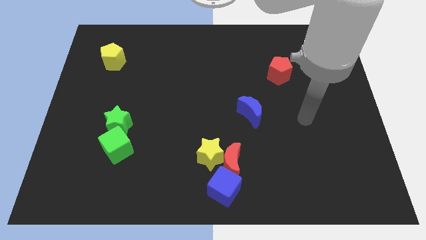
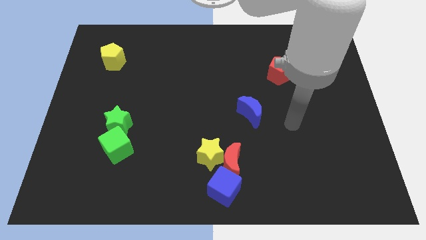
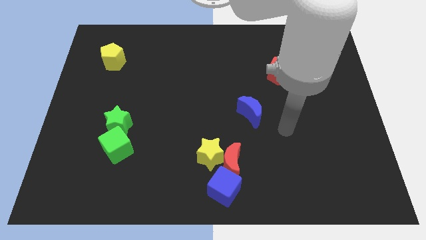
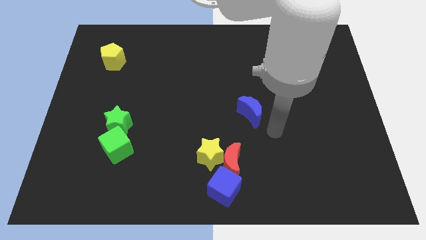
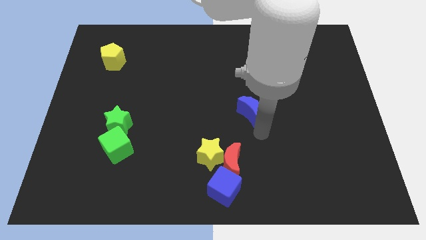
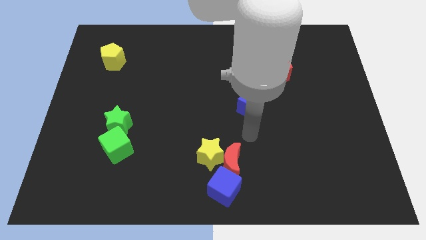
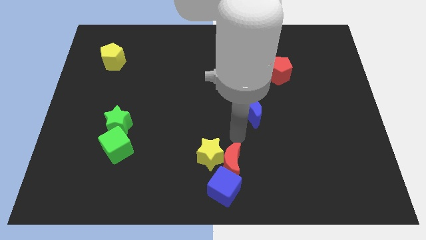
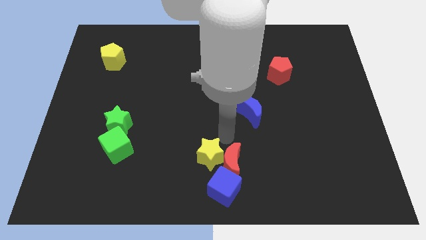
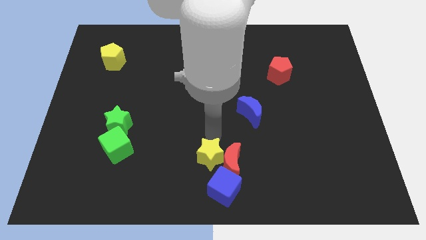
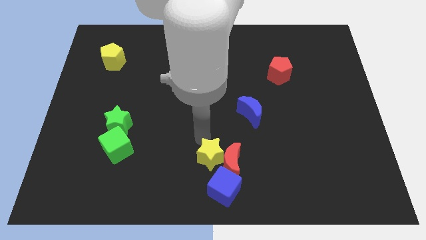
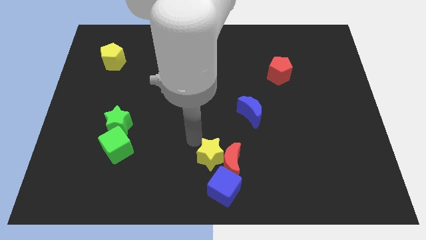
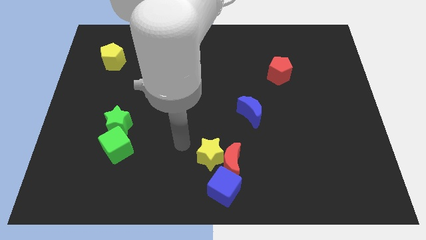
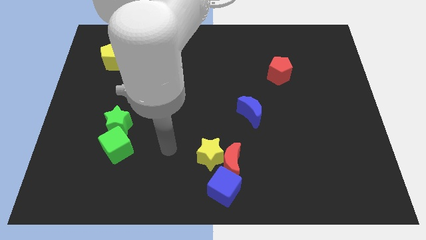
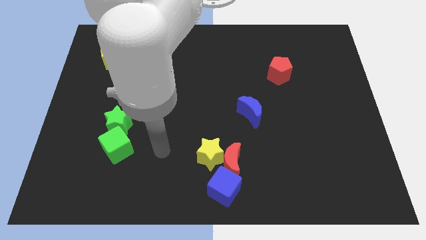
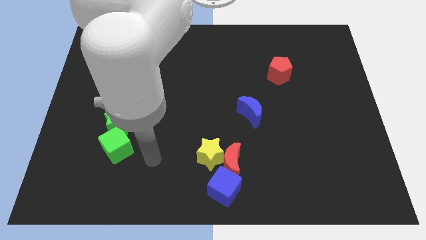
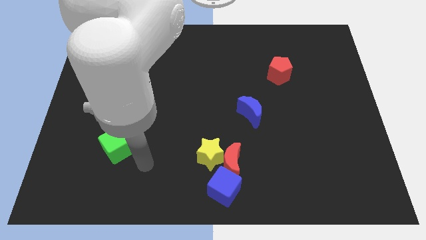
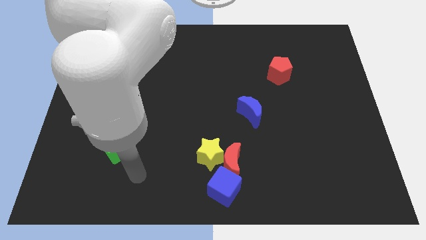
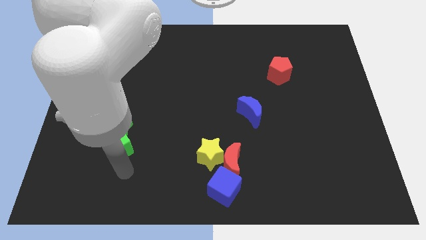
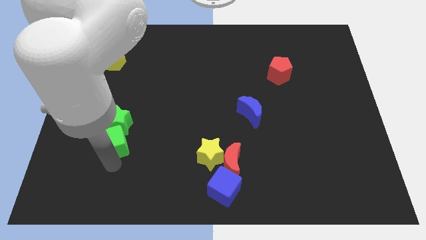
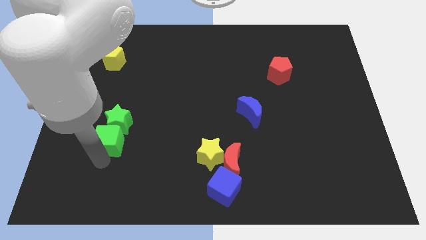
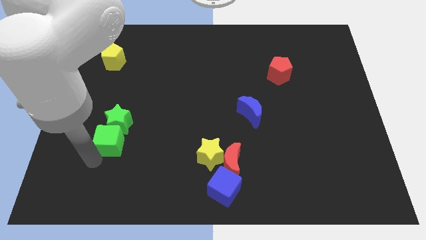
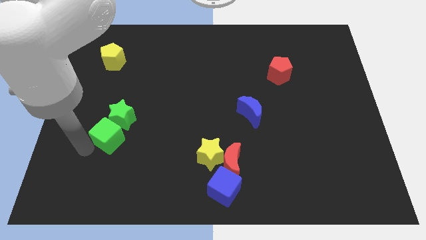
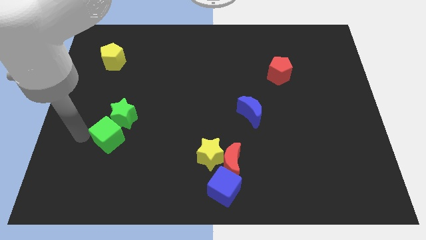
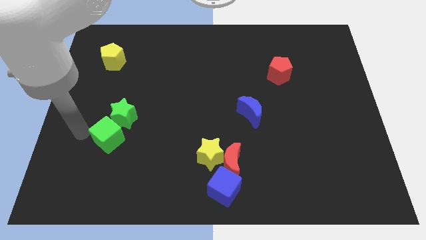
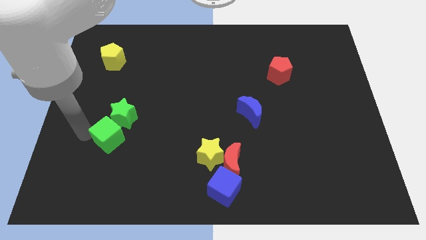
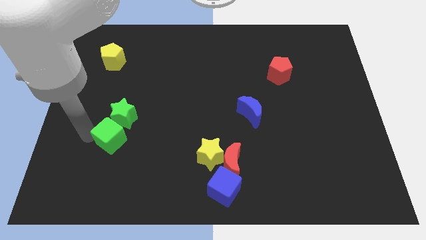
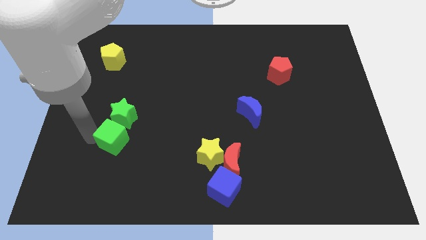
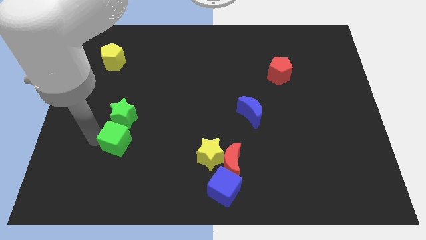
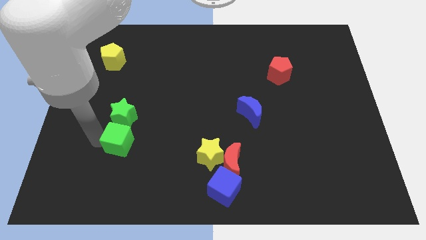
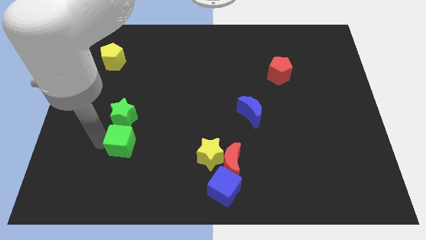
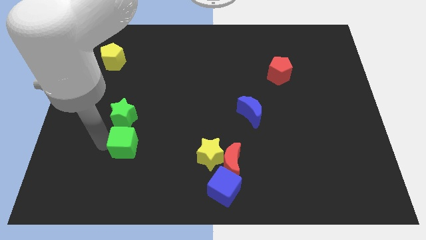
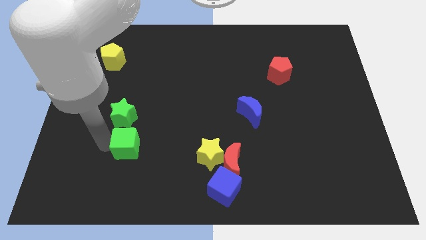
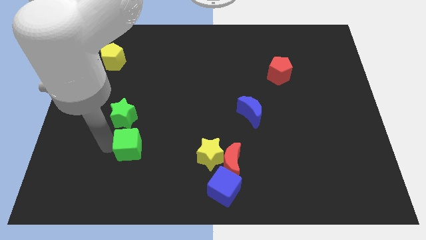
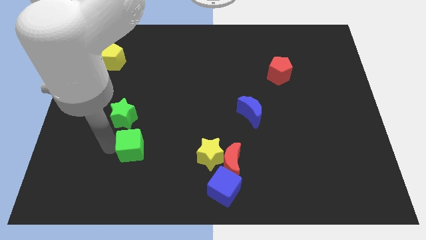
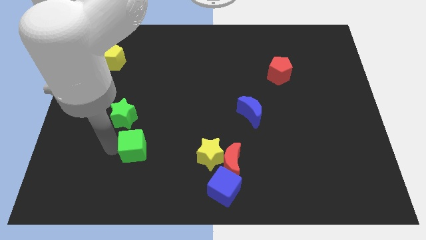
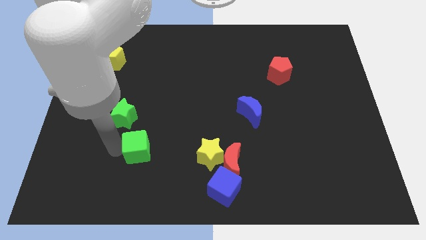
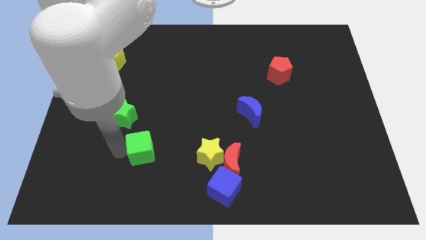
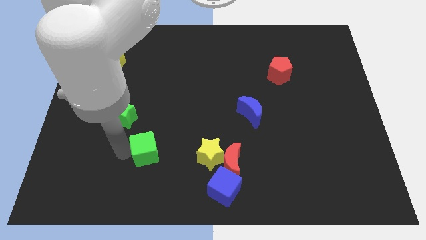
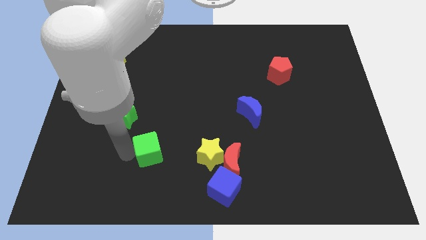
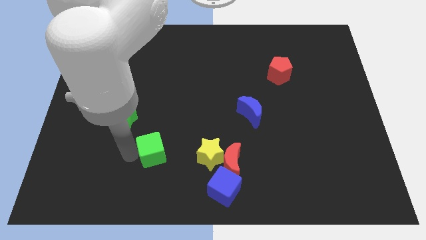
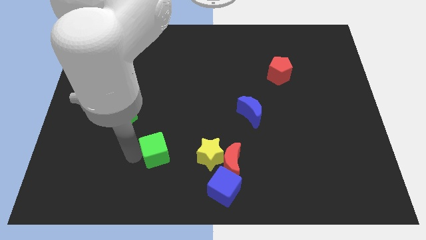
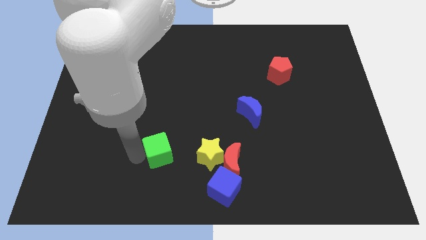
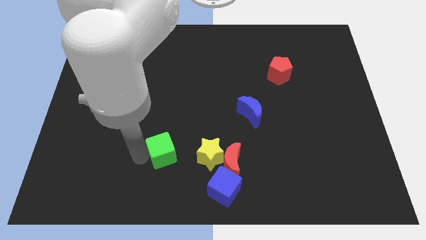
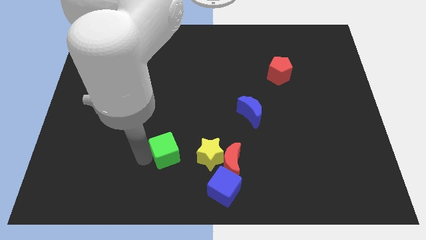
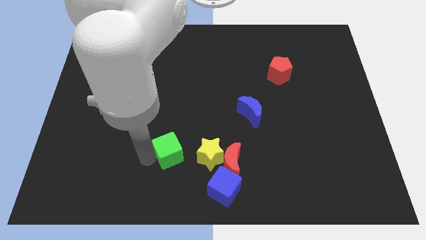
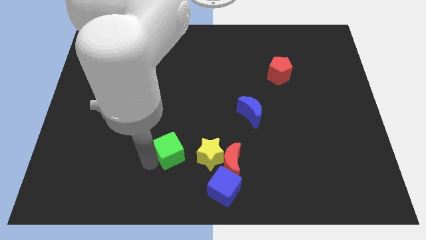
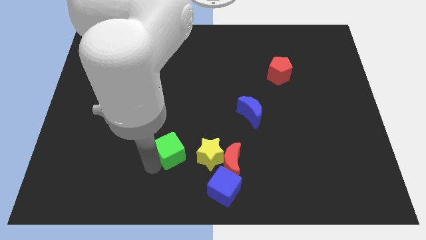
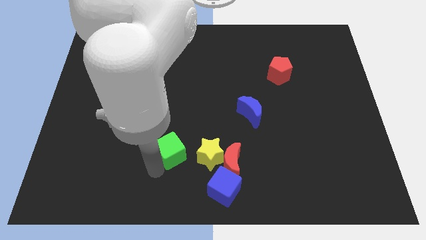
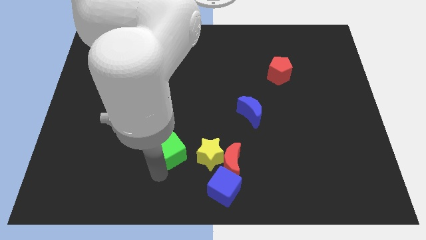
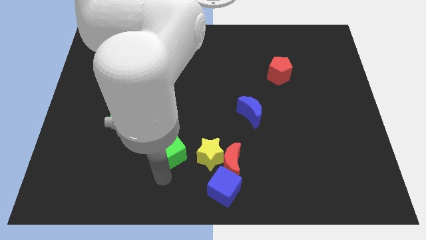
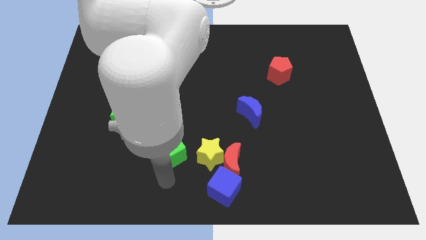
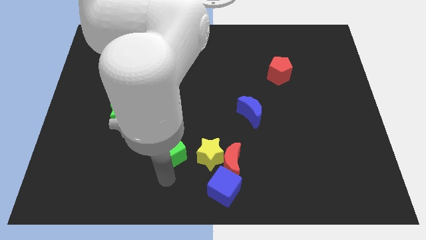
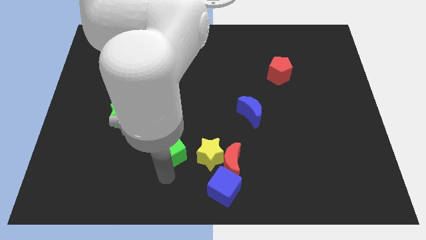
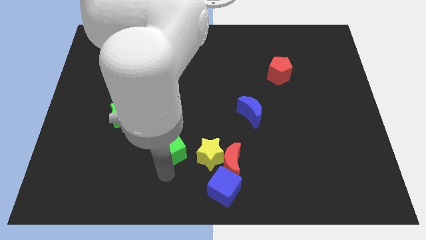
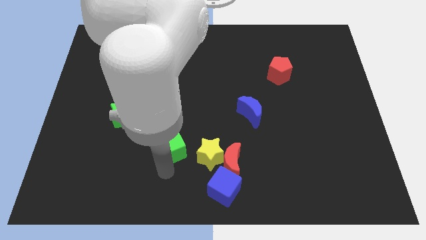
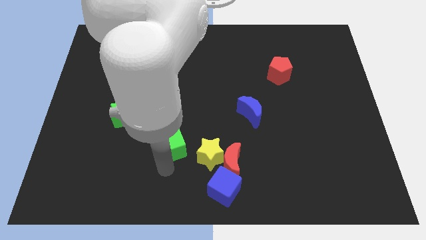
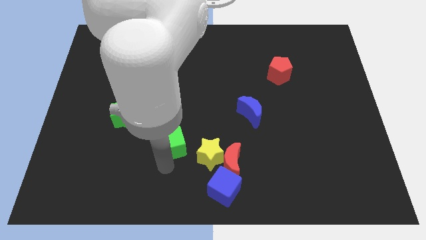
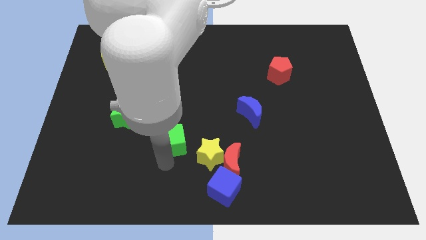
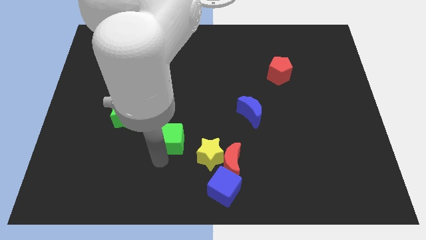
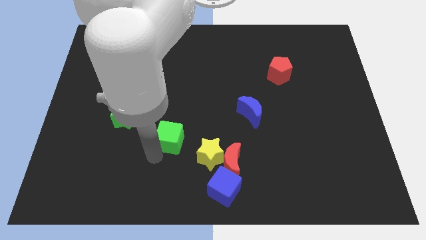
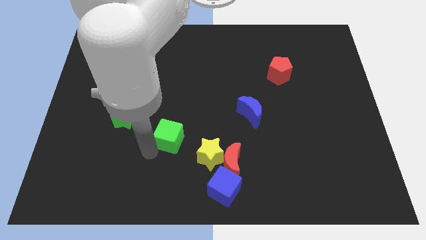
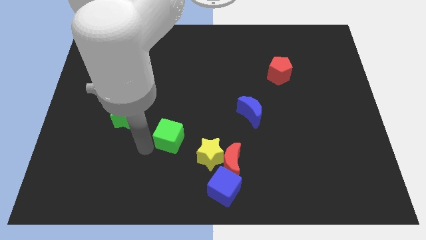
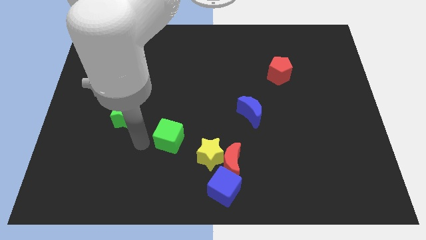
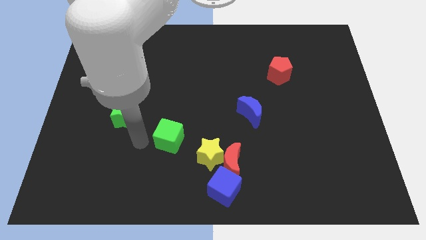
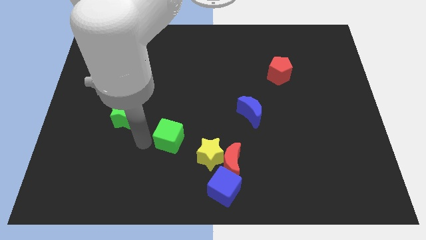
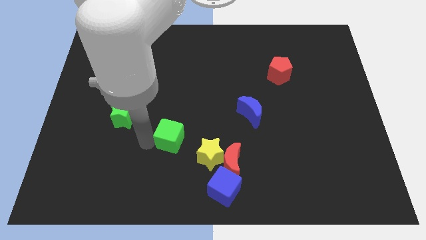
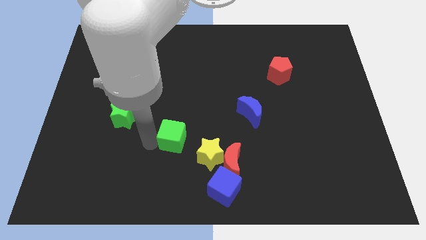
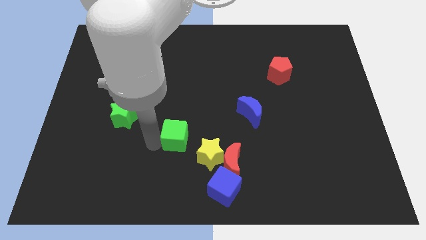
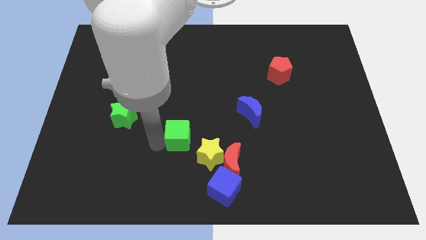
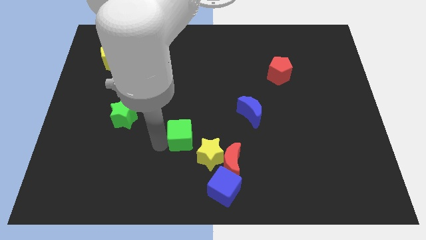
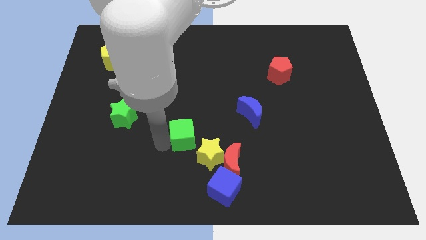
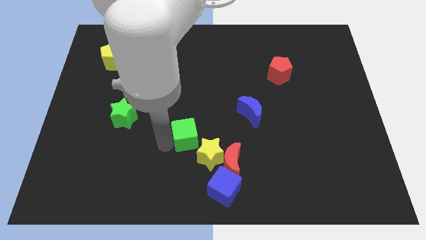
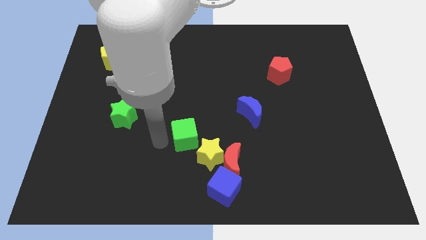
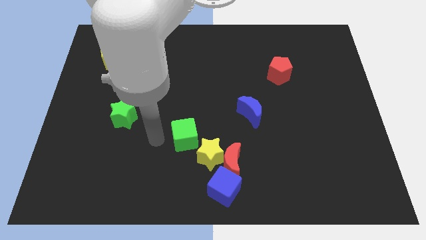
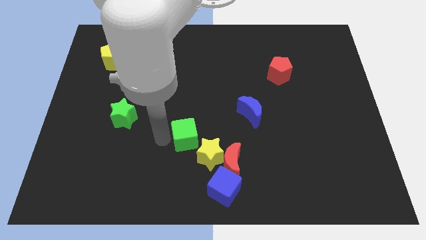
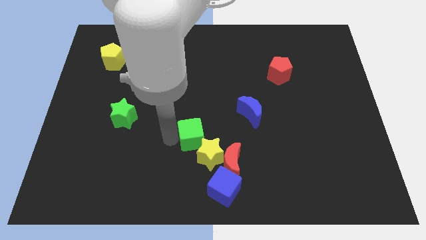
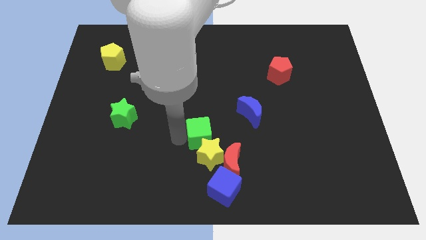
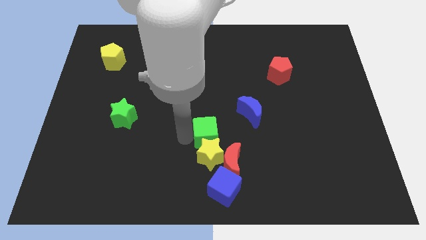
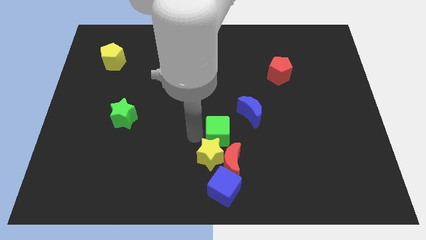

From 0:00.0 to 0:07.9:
slide the green cube right
